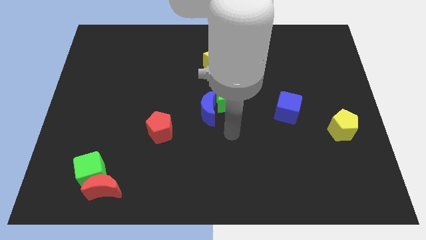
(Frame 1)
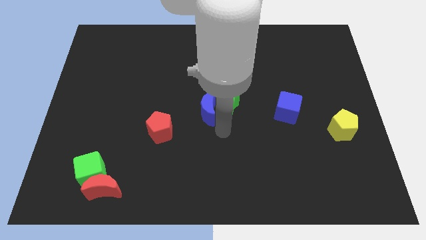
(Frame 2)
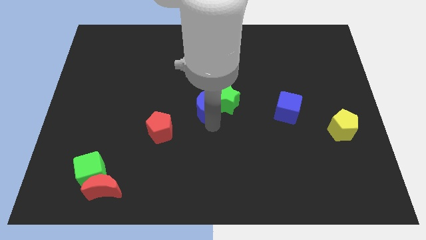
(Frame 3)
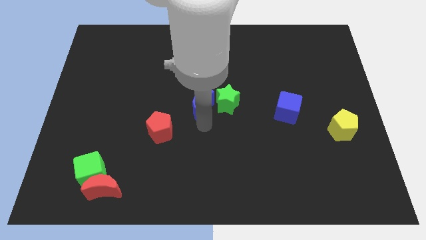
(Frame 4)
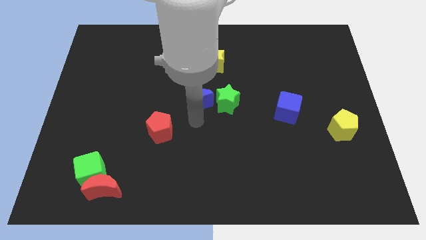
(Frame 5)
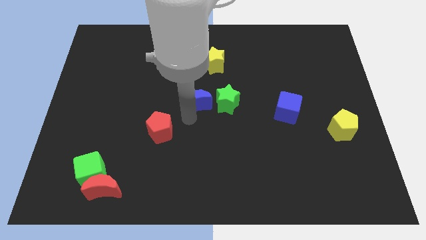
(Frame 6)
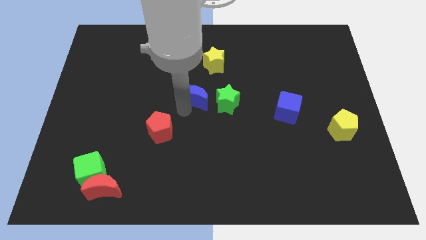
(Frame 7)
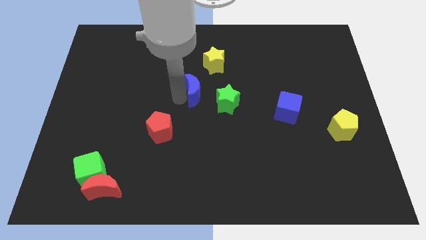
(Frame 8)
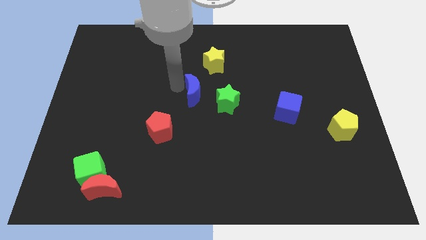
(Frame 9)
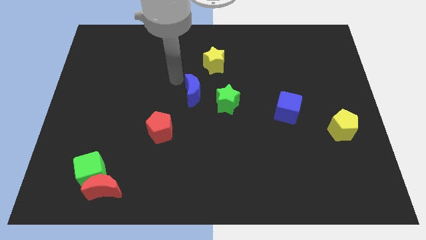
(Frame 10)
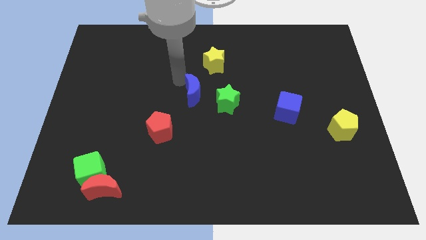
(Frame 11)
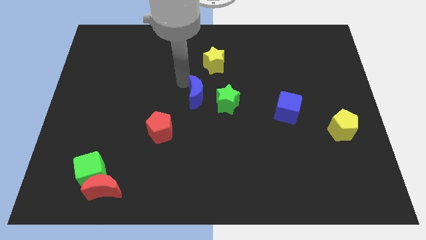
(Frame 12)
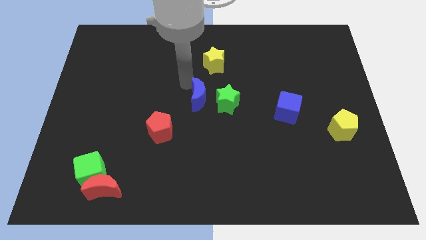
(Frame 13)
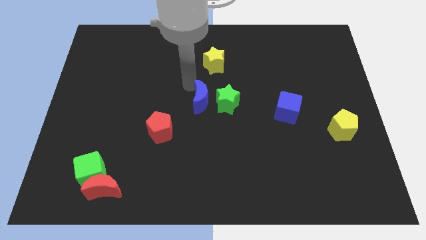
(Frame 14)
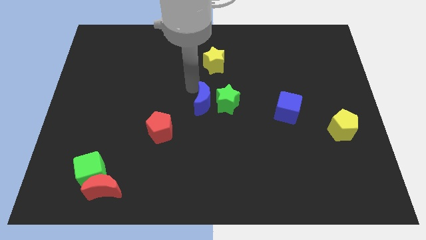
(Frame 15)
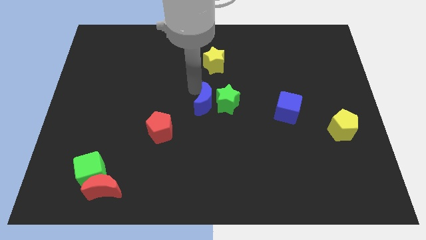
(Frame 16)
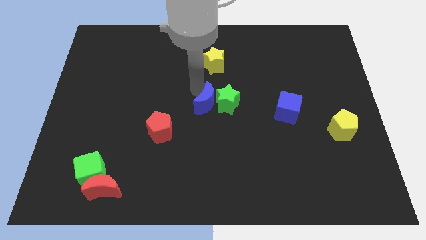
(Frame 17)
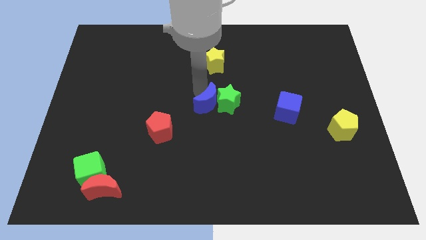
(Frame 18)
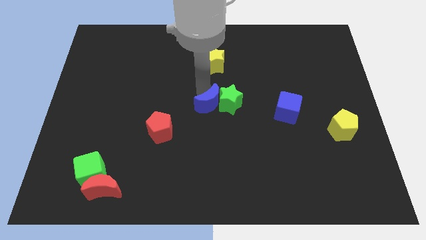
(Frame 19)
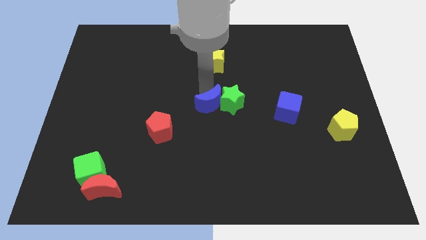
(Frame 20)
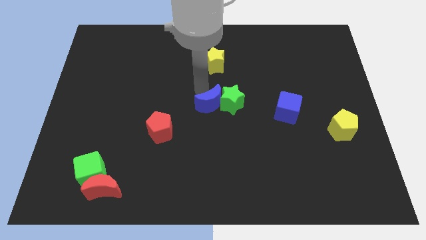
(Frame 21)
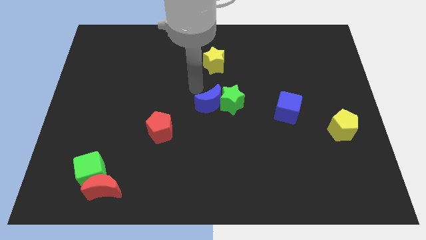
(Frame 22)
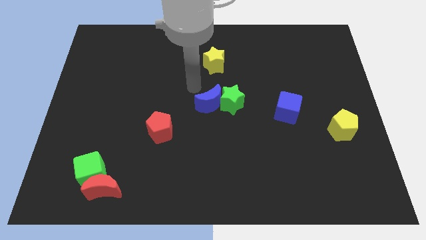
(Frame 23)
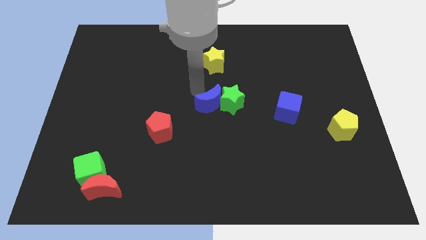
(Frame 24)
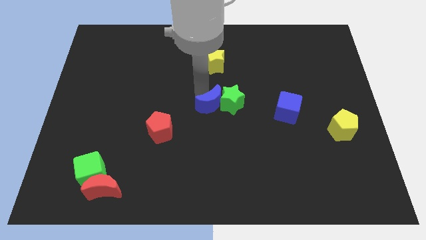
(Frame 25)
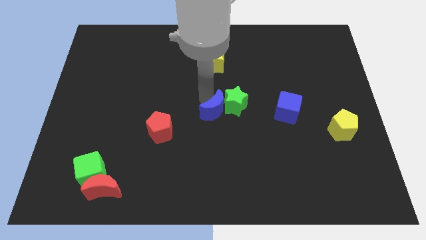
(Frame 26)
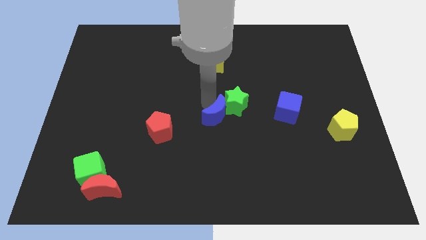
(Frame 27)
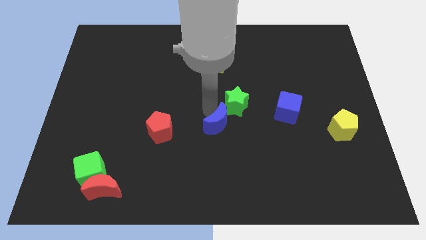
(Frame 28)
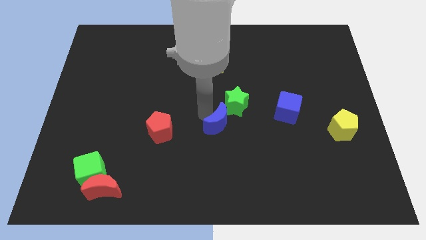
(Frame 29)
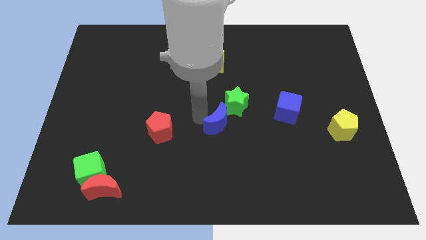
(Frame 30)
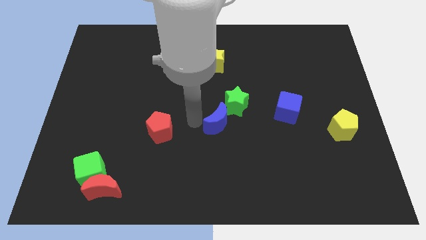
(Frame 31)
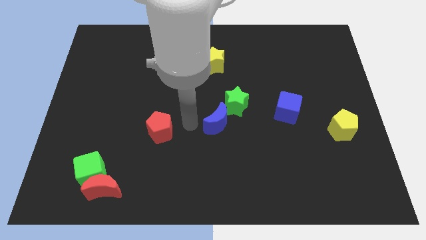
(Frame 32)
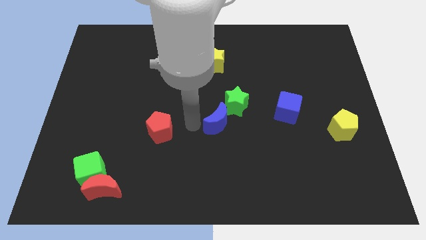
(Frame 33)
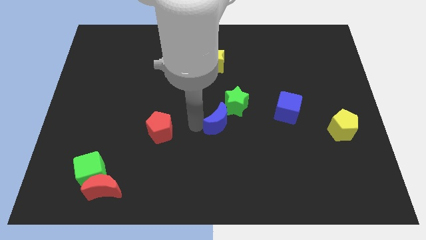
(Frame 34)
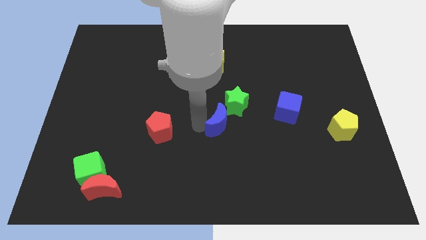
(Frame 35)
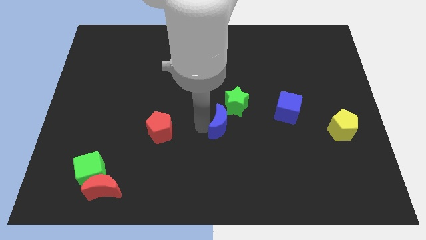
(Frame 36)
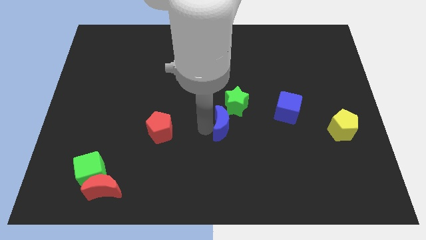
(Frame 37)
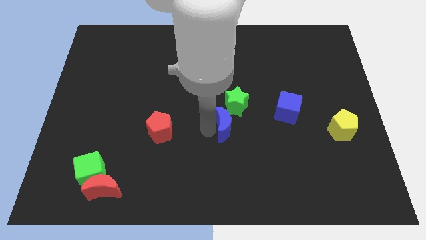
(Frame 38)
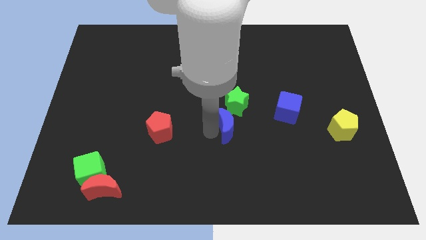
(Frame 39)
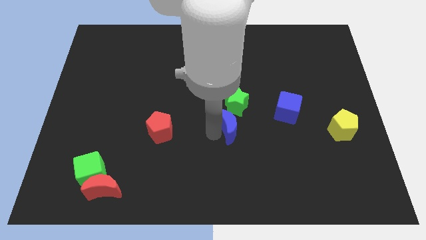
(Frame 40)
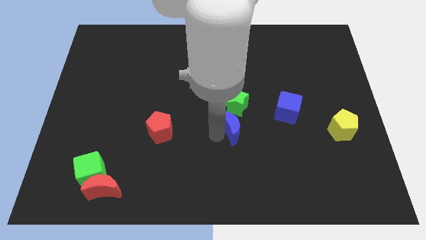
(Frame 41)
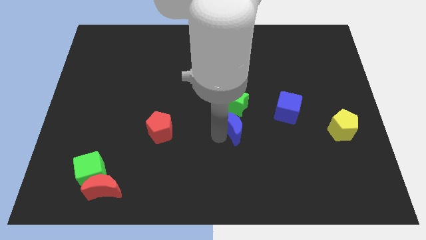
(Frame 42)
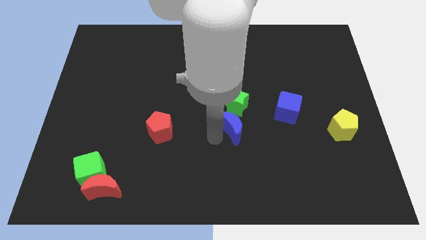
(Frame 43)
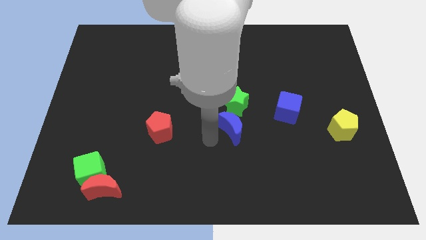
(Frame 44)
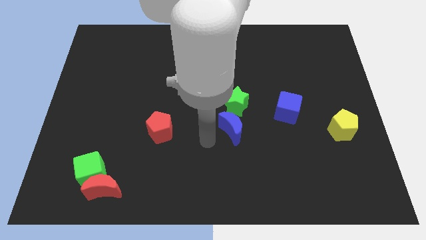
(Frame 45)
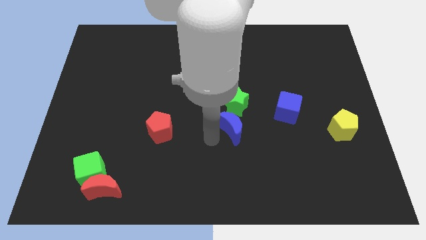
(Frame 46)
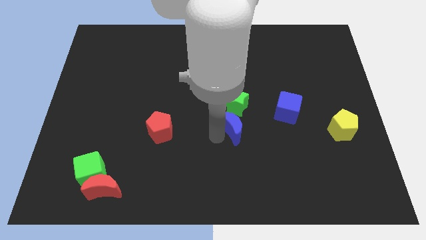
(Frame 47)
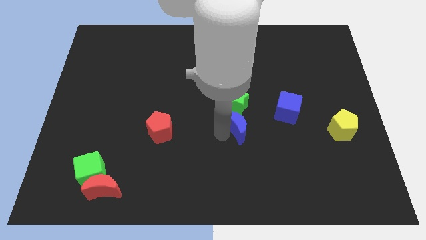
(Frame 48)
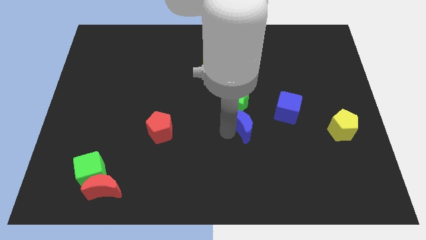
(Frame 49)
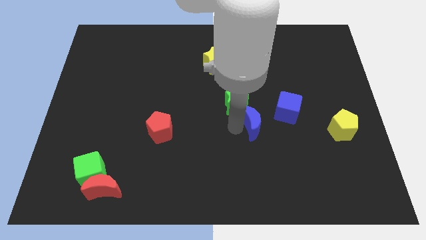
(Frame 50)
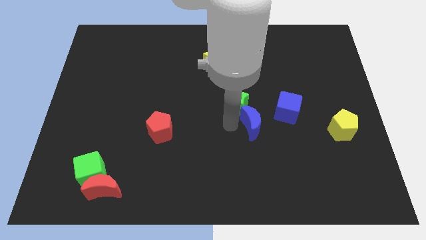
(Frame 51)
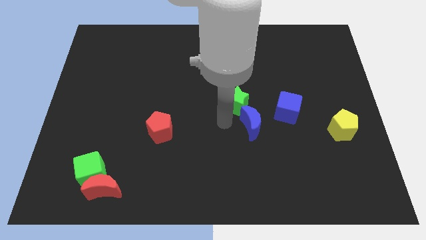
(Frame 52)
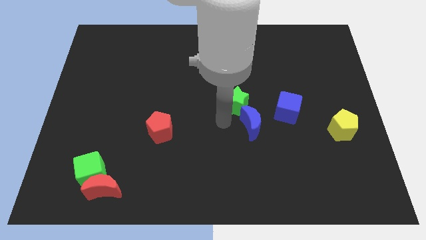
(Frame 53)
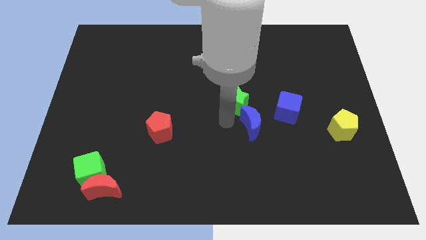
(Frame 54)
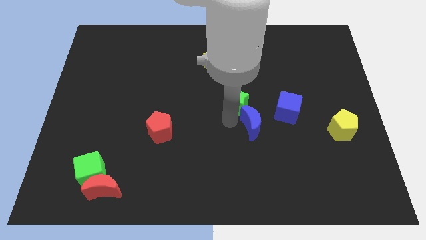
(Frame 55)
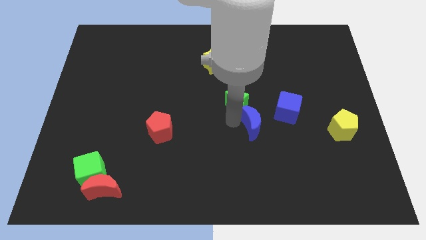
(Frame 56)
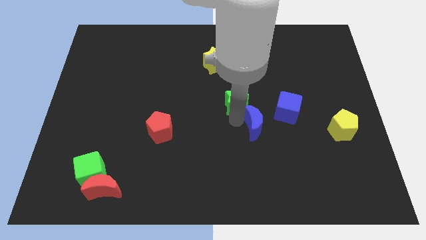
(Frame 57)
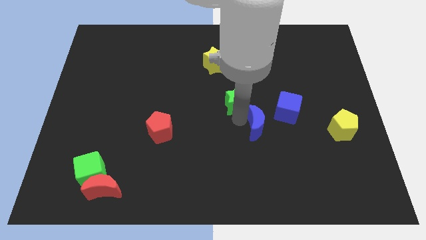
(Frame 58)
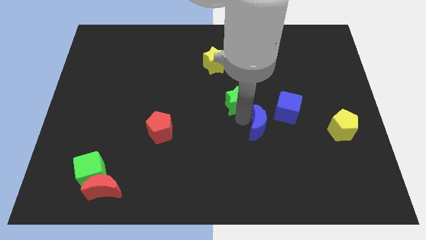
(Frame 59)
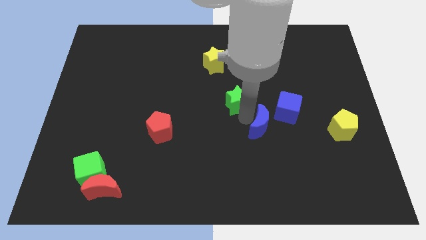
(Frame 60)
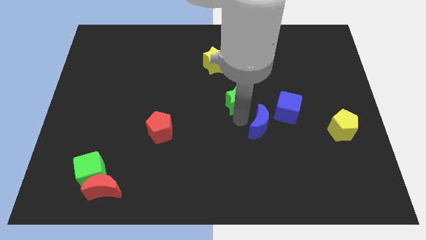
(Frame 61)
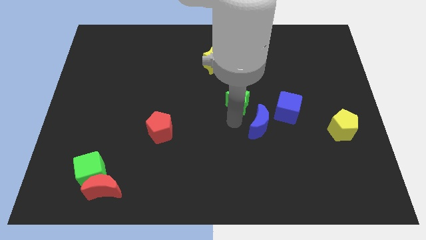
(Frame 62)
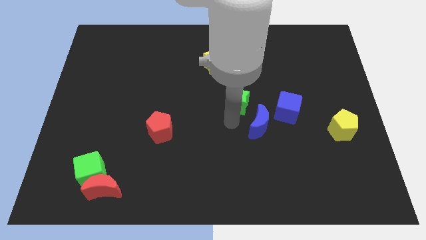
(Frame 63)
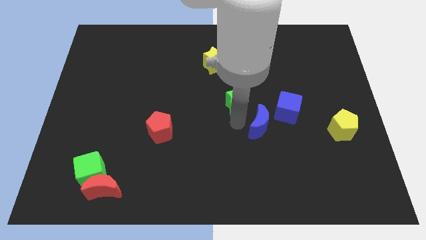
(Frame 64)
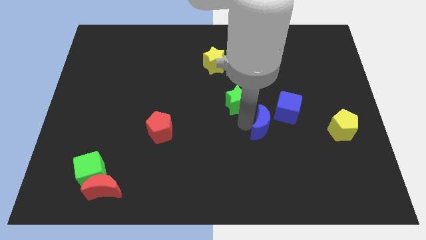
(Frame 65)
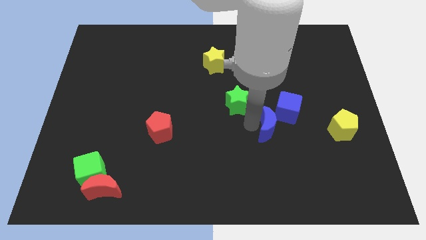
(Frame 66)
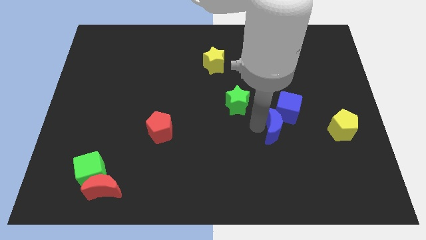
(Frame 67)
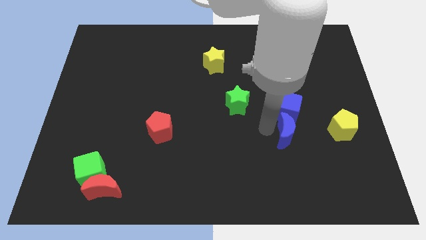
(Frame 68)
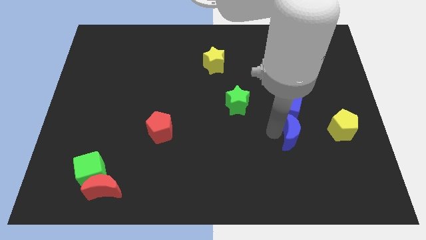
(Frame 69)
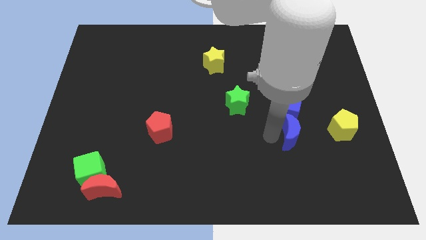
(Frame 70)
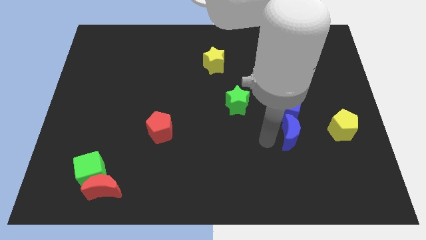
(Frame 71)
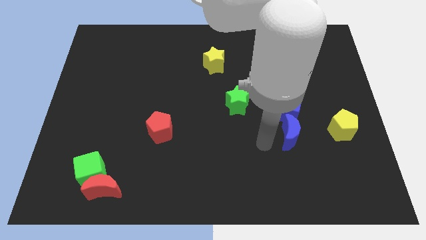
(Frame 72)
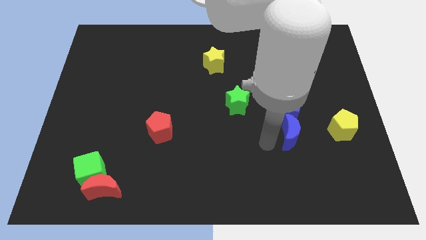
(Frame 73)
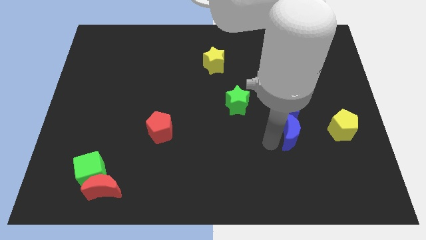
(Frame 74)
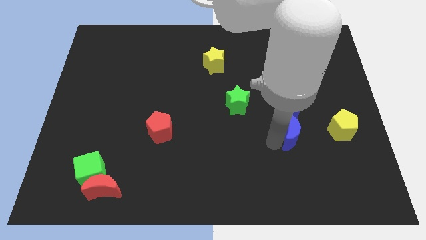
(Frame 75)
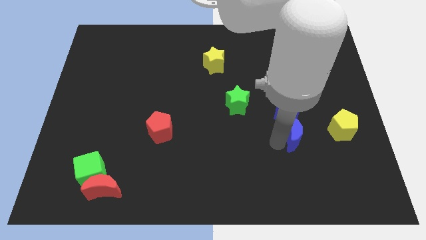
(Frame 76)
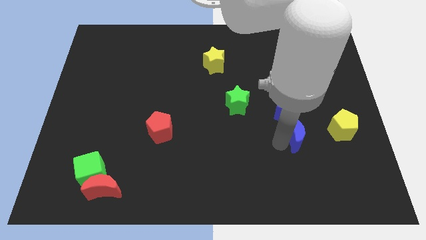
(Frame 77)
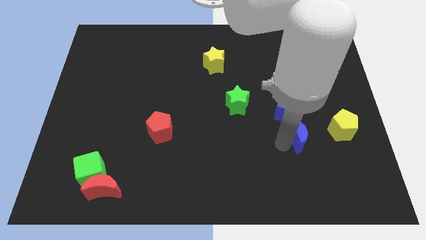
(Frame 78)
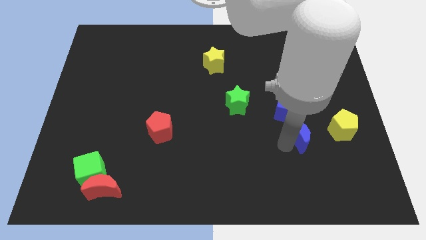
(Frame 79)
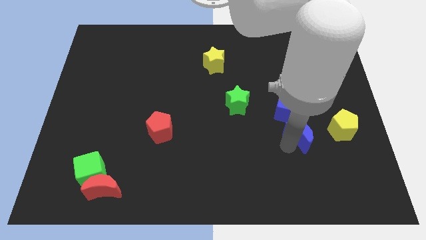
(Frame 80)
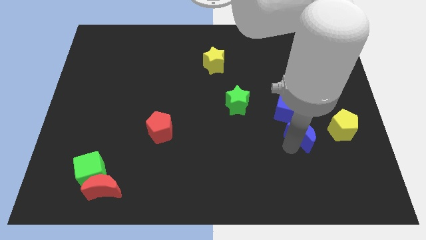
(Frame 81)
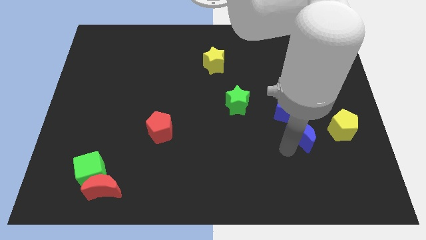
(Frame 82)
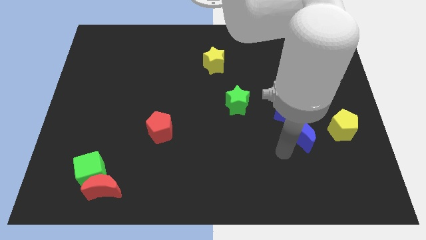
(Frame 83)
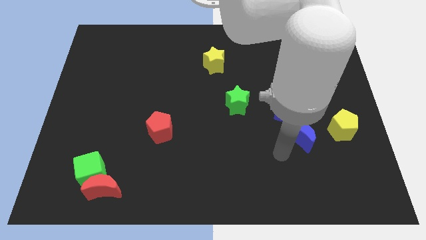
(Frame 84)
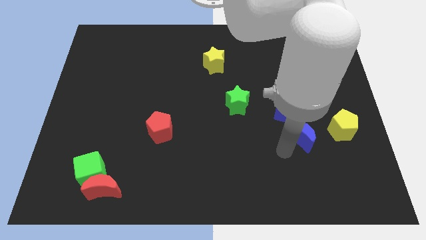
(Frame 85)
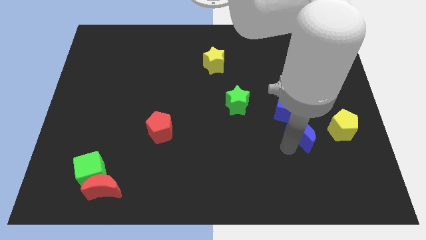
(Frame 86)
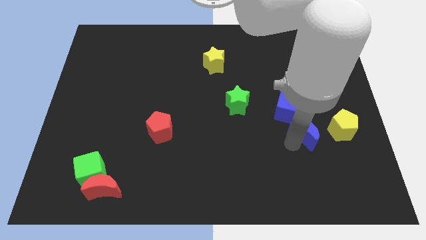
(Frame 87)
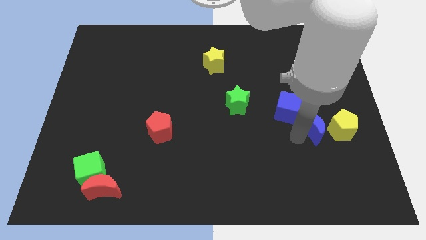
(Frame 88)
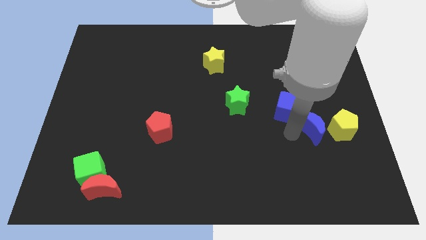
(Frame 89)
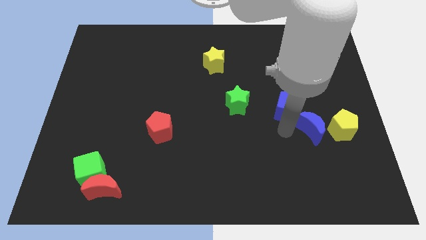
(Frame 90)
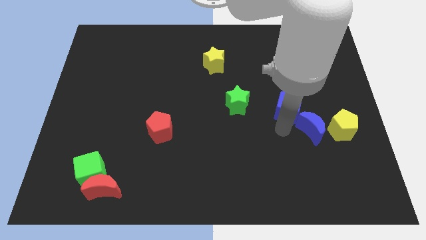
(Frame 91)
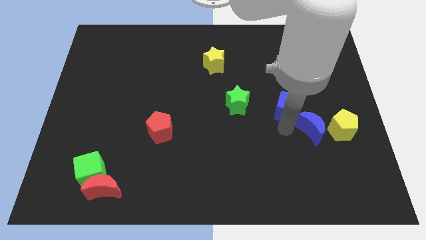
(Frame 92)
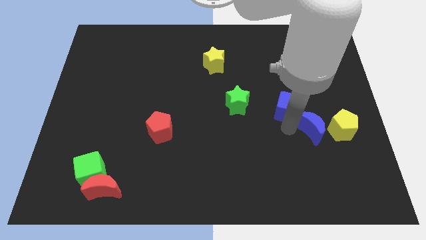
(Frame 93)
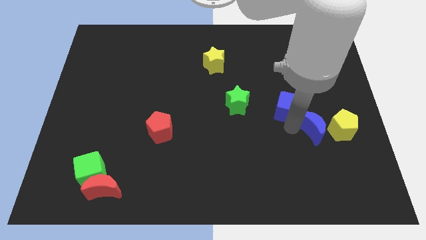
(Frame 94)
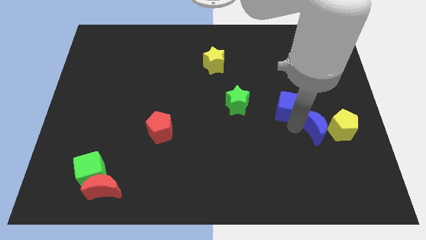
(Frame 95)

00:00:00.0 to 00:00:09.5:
push the blue moon towards the yellow pentagon
